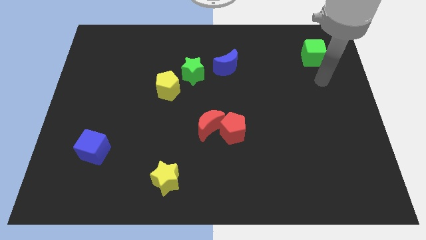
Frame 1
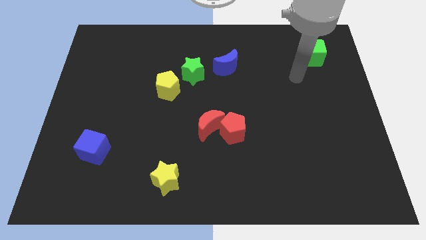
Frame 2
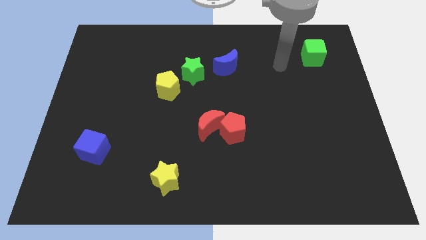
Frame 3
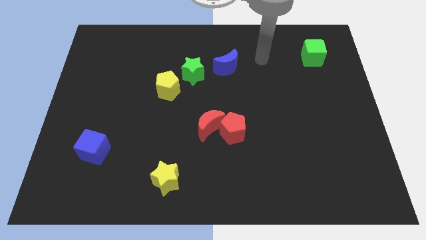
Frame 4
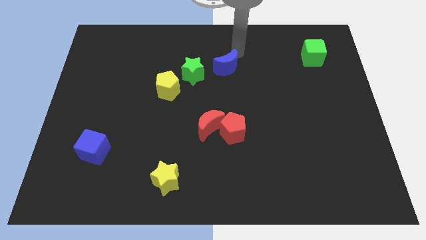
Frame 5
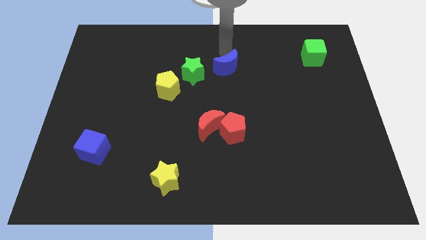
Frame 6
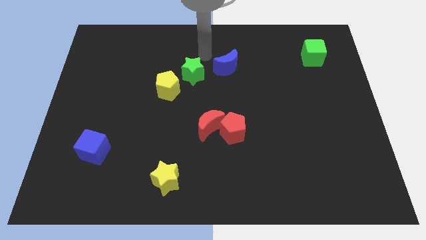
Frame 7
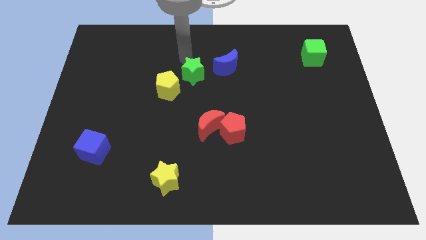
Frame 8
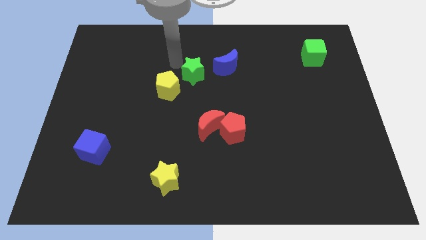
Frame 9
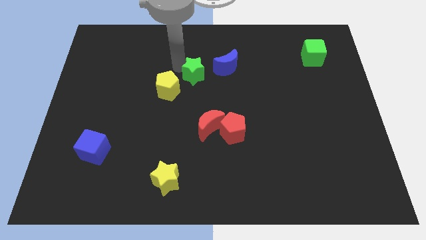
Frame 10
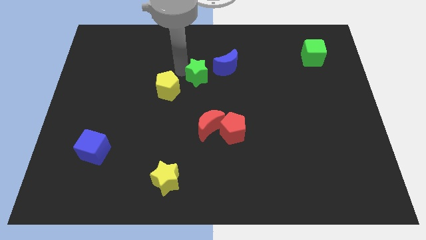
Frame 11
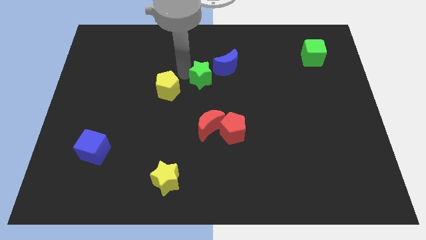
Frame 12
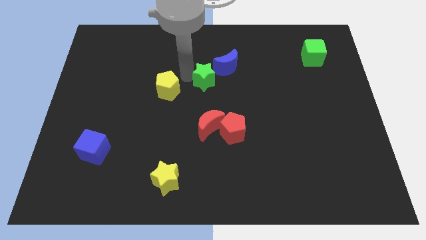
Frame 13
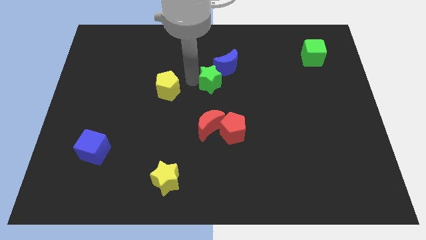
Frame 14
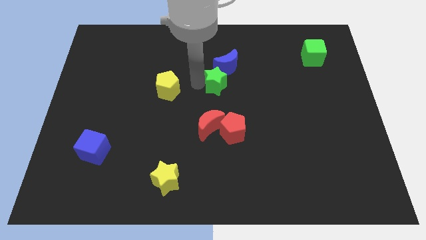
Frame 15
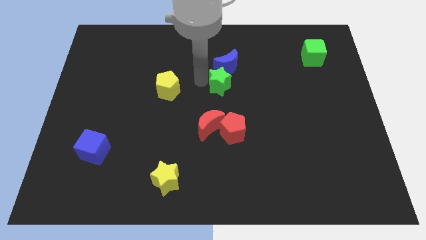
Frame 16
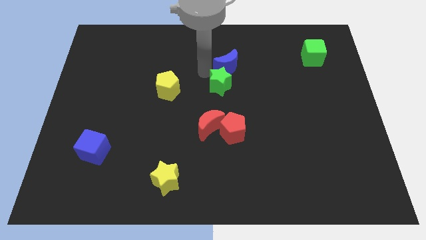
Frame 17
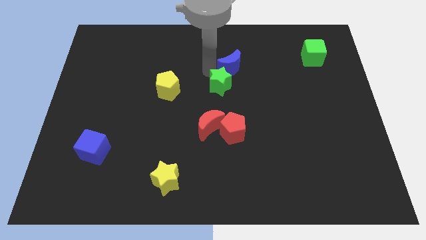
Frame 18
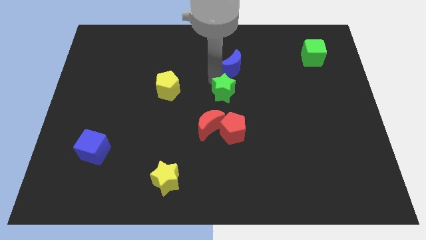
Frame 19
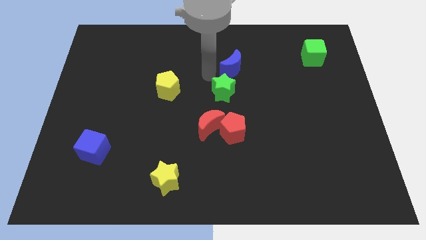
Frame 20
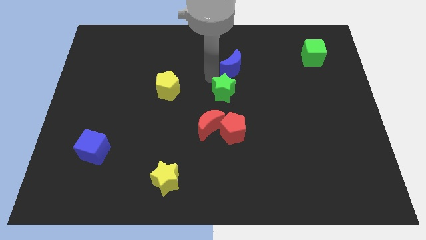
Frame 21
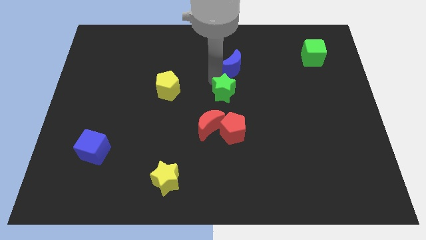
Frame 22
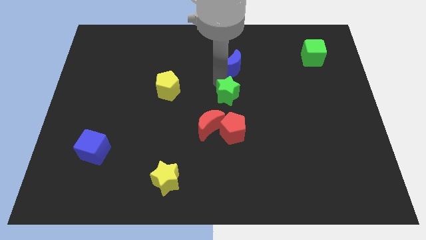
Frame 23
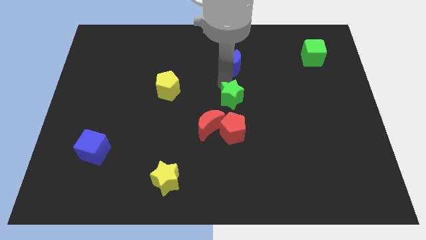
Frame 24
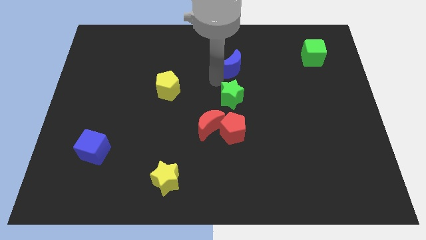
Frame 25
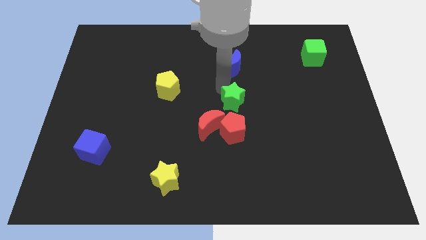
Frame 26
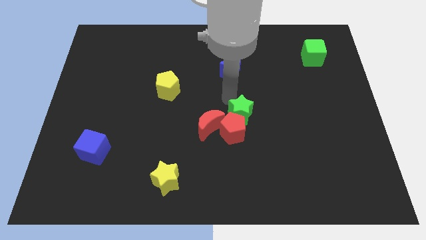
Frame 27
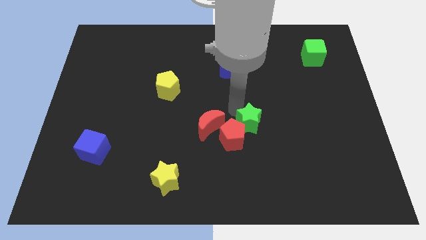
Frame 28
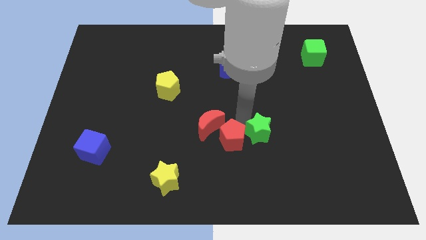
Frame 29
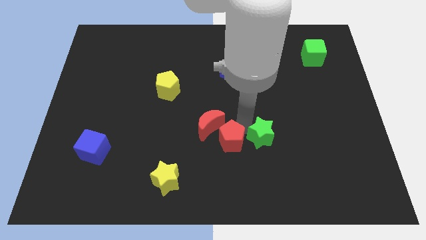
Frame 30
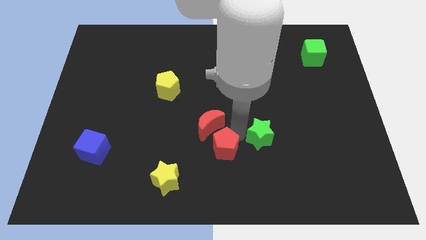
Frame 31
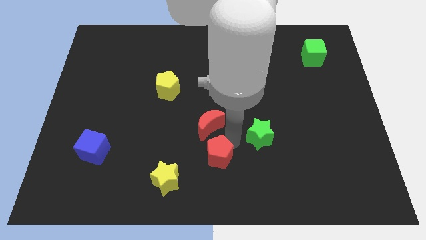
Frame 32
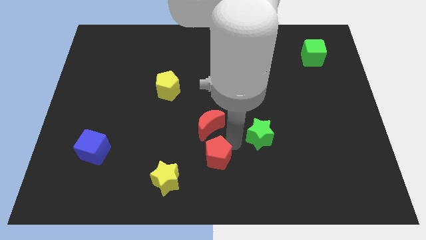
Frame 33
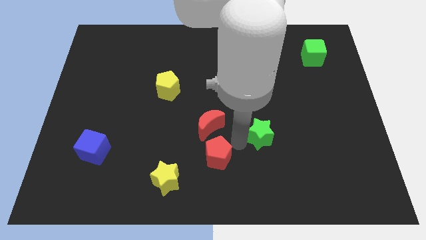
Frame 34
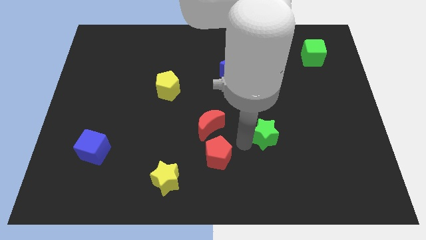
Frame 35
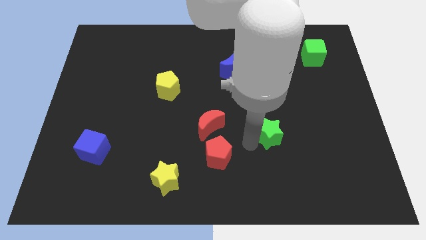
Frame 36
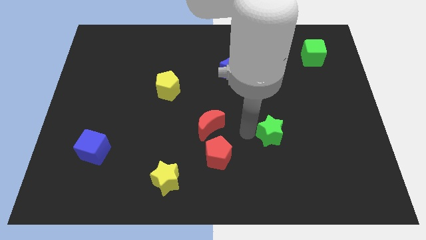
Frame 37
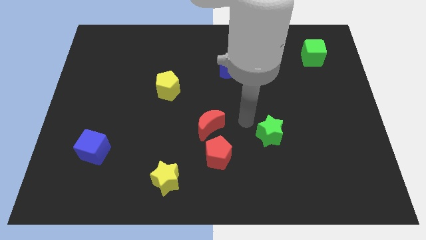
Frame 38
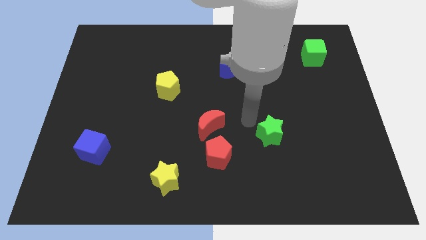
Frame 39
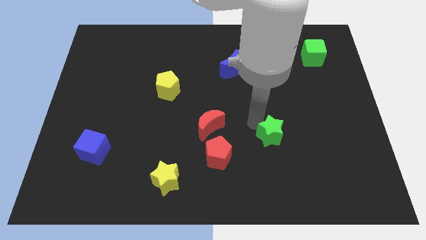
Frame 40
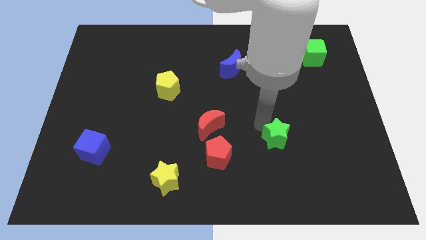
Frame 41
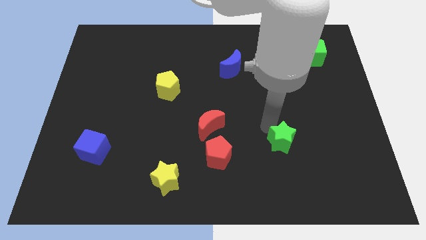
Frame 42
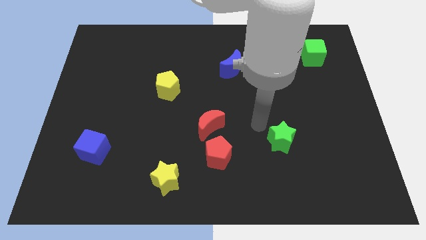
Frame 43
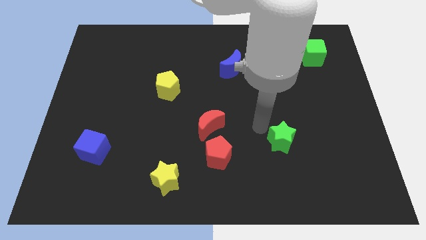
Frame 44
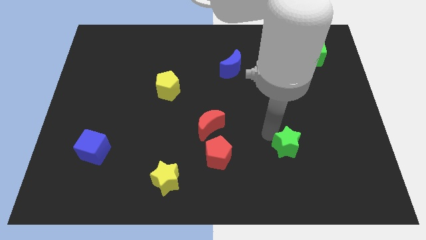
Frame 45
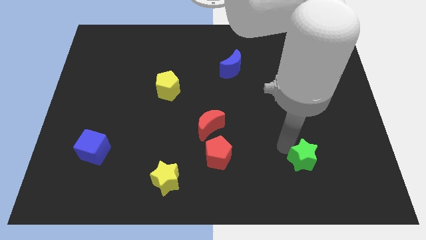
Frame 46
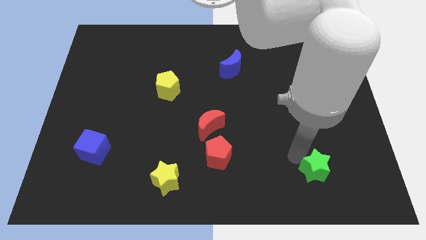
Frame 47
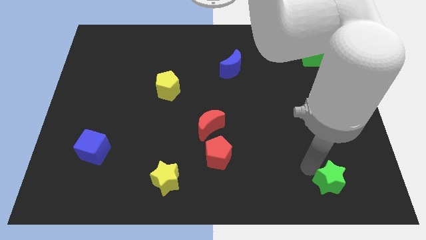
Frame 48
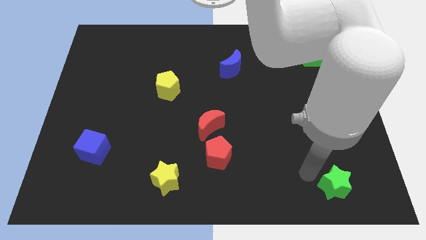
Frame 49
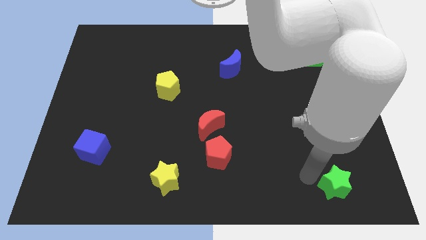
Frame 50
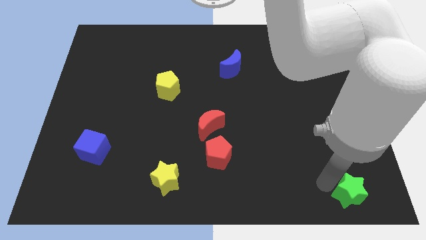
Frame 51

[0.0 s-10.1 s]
push the green star to the bottom right corner
